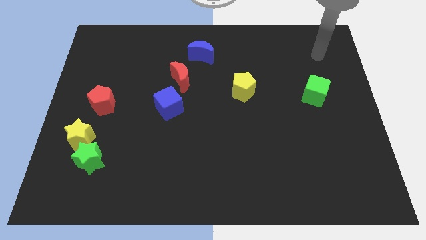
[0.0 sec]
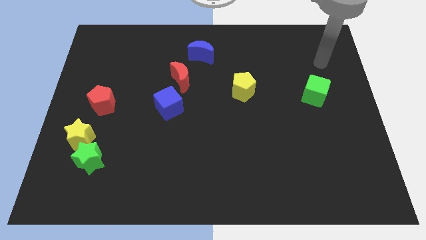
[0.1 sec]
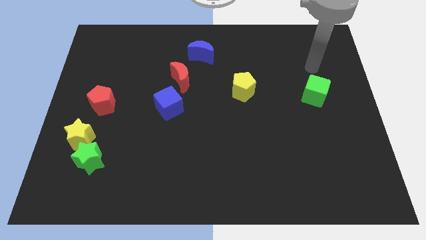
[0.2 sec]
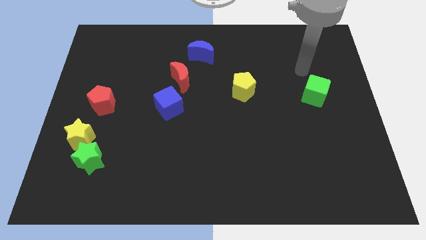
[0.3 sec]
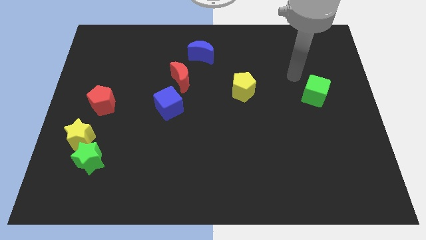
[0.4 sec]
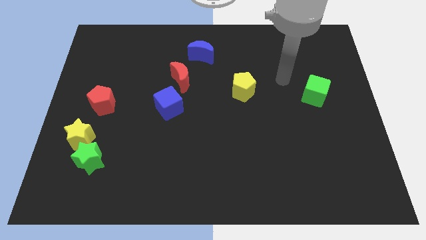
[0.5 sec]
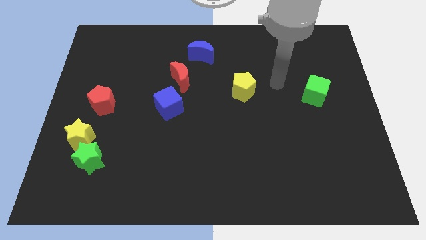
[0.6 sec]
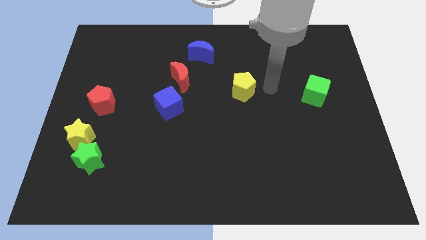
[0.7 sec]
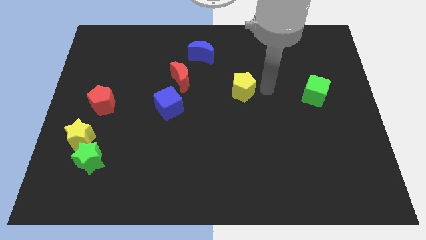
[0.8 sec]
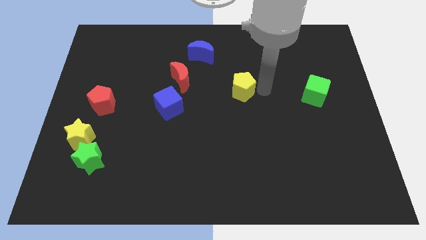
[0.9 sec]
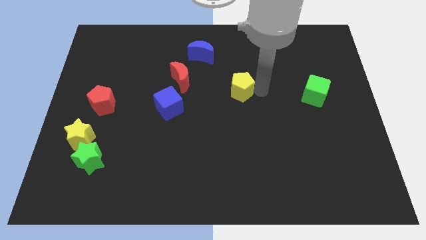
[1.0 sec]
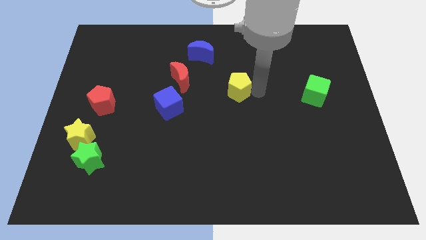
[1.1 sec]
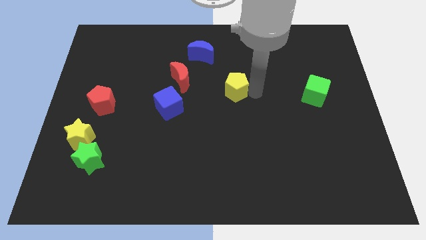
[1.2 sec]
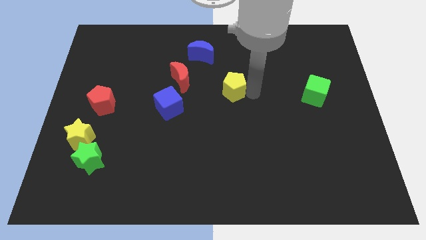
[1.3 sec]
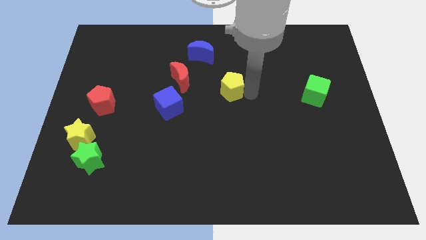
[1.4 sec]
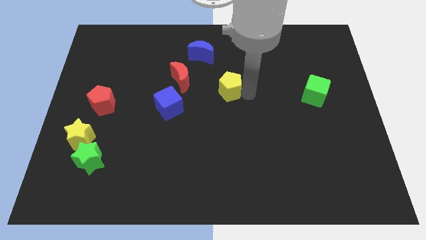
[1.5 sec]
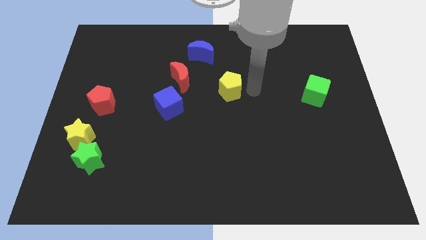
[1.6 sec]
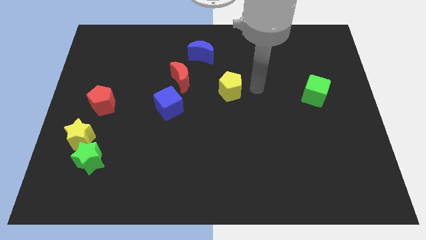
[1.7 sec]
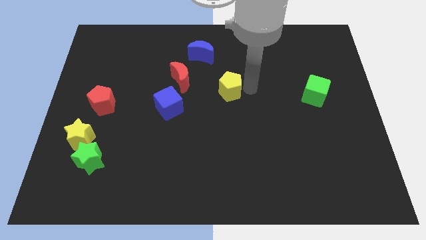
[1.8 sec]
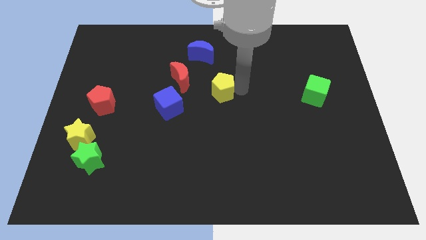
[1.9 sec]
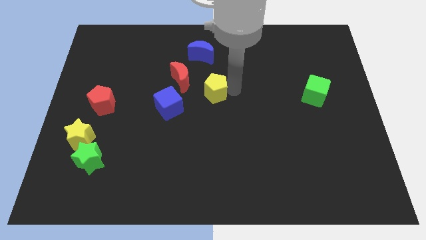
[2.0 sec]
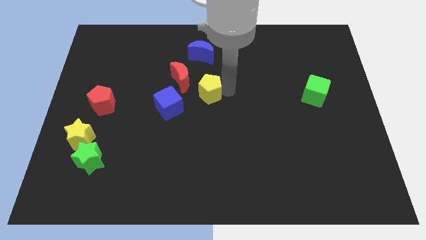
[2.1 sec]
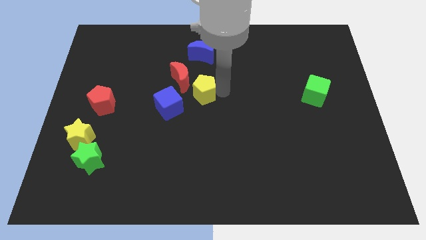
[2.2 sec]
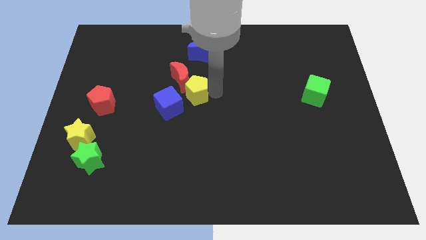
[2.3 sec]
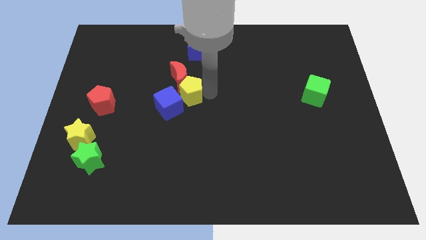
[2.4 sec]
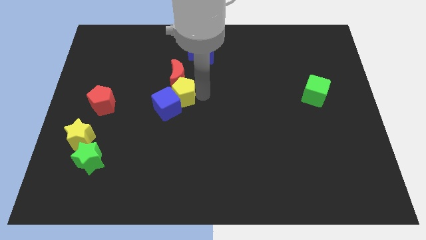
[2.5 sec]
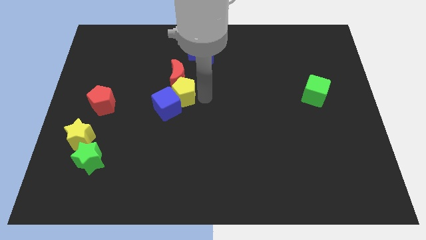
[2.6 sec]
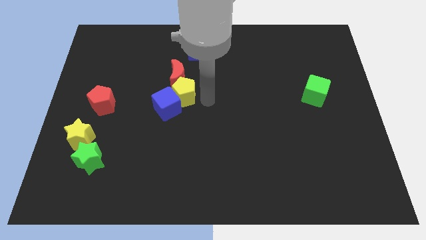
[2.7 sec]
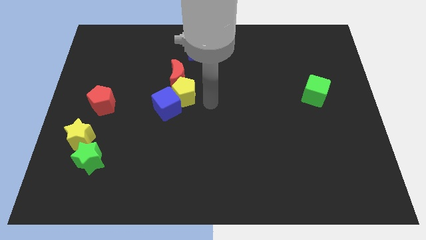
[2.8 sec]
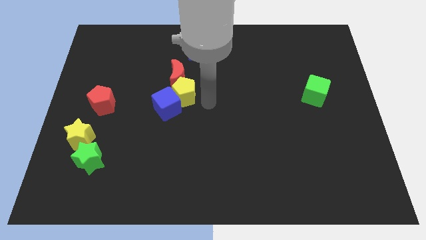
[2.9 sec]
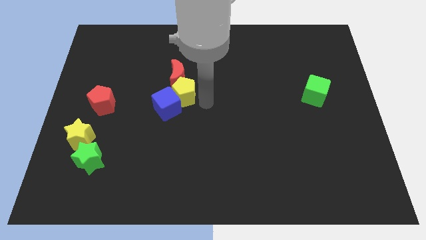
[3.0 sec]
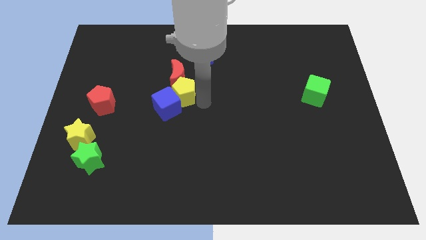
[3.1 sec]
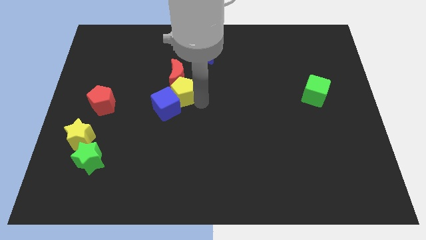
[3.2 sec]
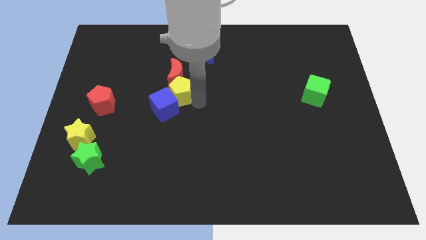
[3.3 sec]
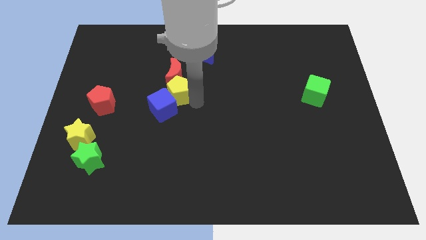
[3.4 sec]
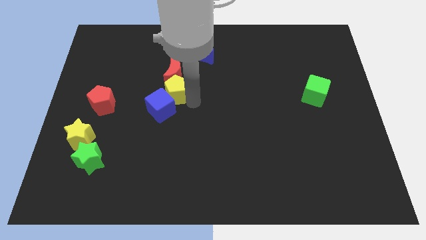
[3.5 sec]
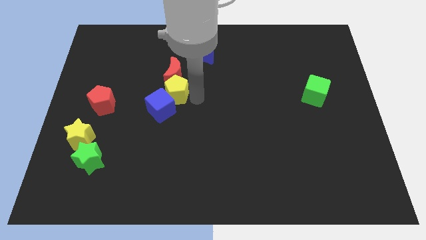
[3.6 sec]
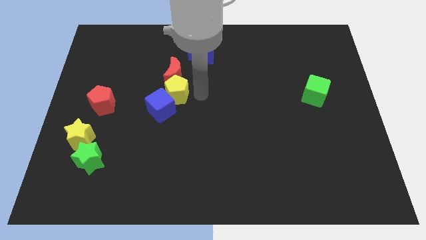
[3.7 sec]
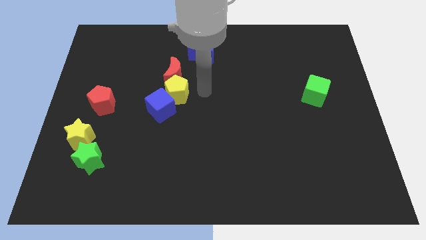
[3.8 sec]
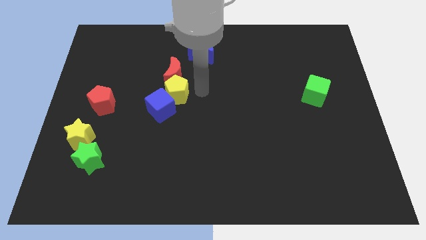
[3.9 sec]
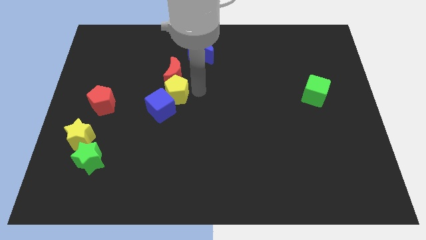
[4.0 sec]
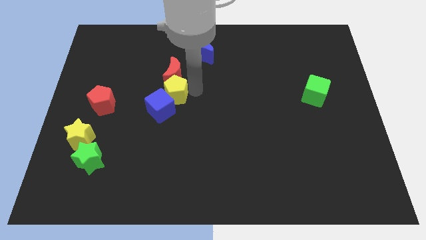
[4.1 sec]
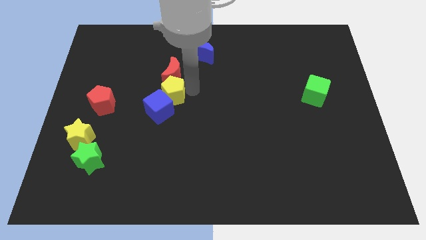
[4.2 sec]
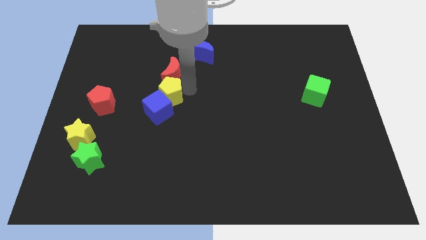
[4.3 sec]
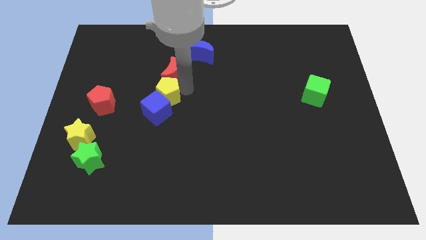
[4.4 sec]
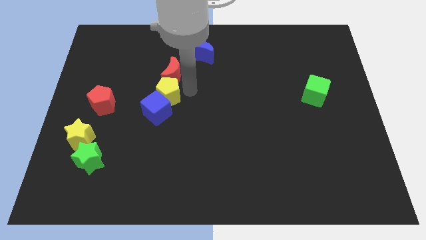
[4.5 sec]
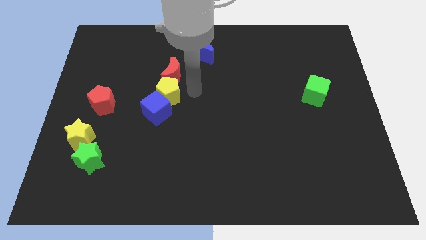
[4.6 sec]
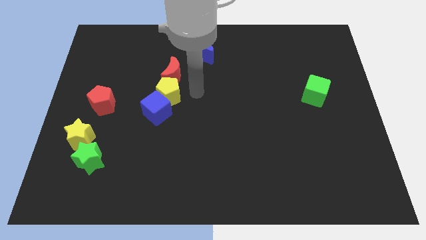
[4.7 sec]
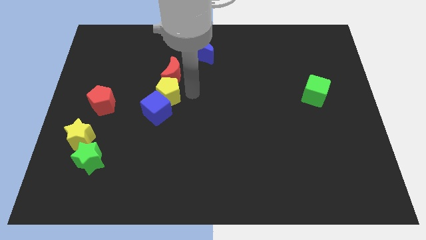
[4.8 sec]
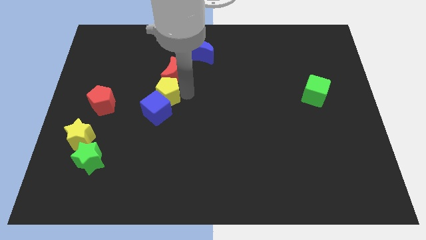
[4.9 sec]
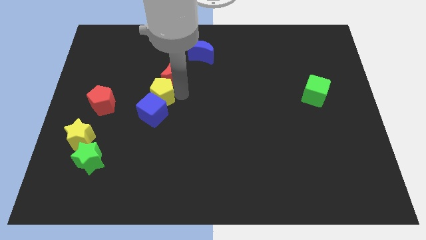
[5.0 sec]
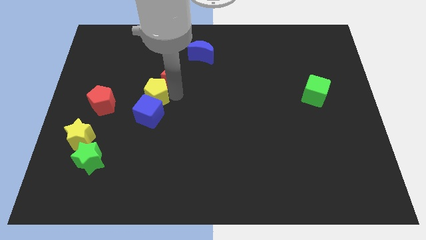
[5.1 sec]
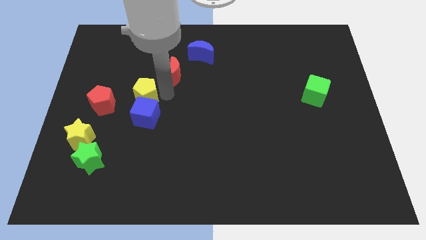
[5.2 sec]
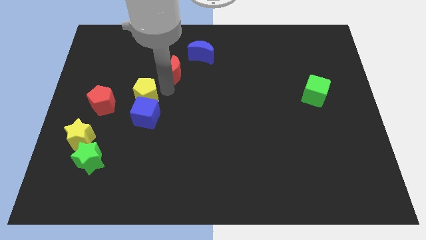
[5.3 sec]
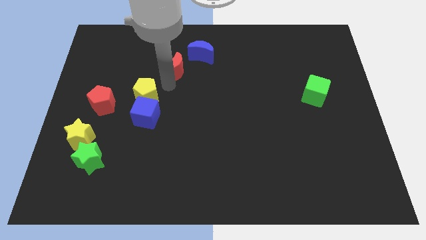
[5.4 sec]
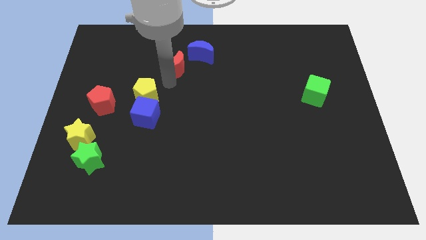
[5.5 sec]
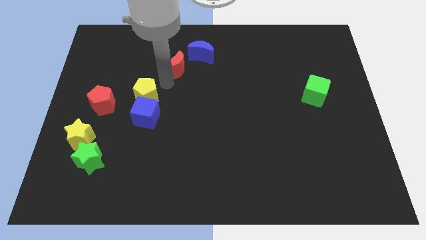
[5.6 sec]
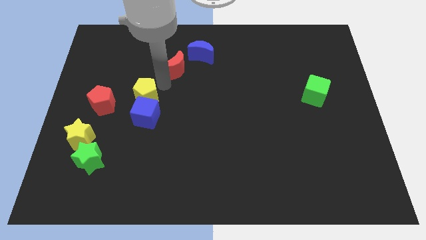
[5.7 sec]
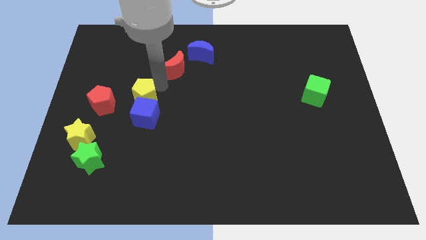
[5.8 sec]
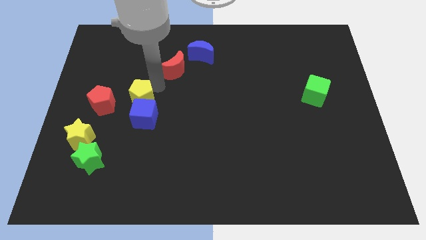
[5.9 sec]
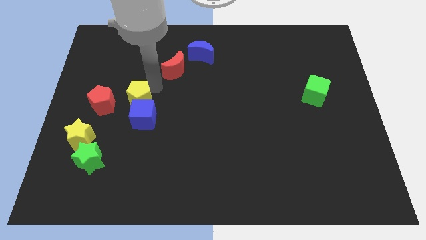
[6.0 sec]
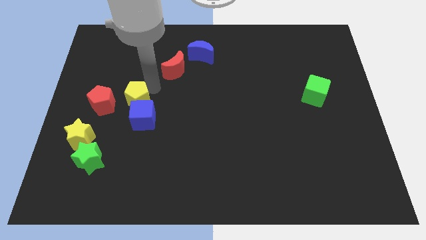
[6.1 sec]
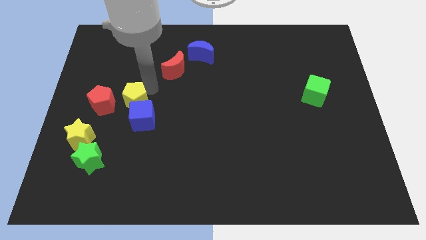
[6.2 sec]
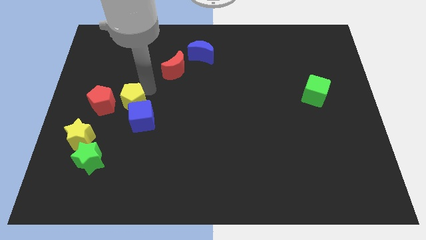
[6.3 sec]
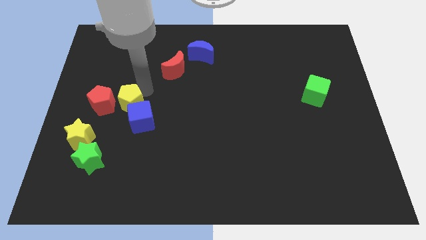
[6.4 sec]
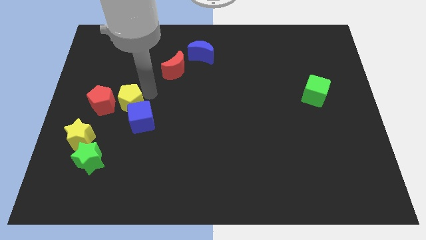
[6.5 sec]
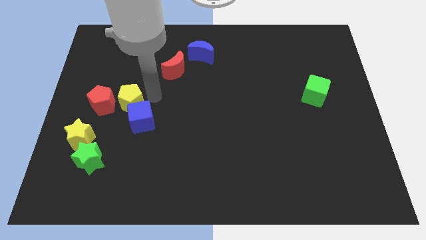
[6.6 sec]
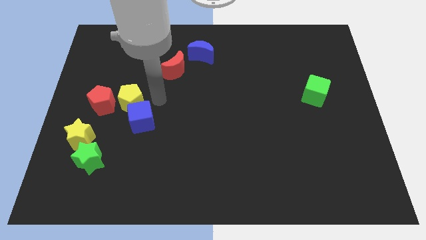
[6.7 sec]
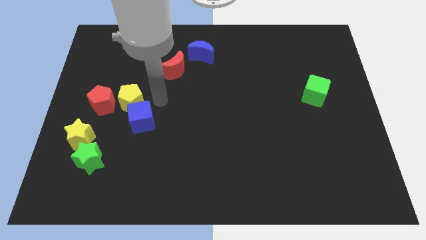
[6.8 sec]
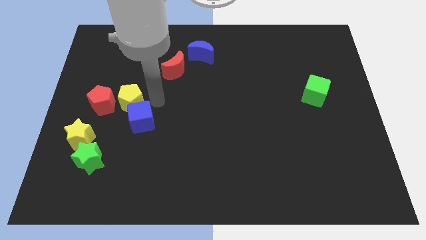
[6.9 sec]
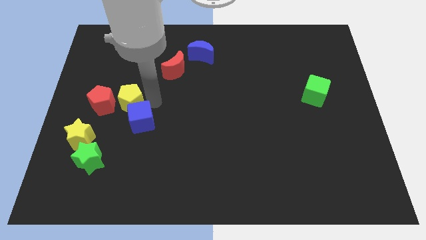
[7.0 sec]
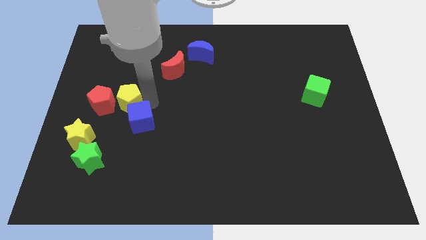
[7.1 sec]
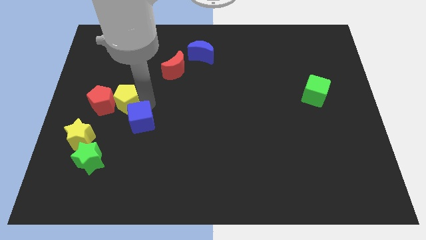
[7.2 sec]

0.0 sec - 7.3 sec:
put the yellow pentagon next to the red pentagon
